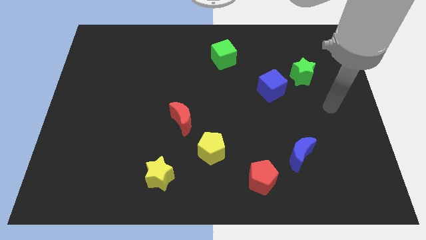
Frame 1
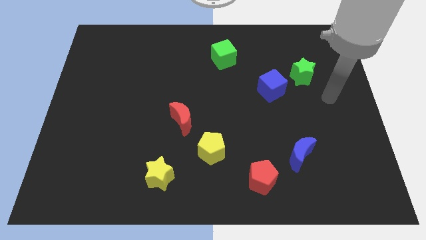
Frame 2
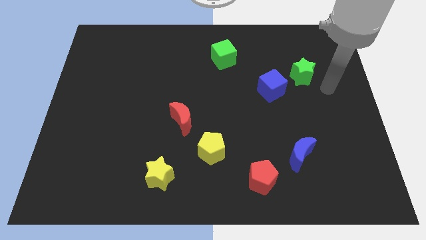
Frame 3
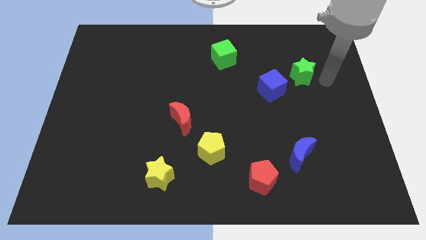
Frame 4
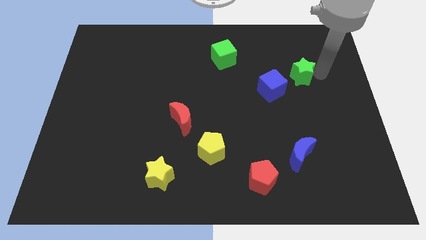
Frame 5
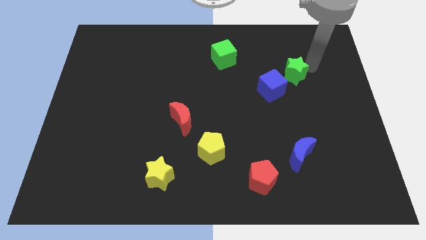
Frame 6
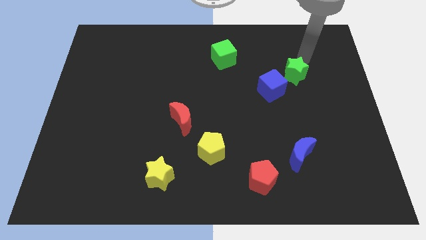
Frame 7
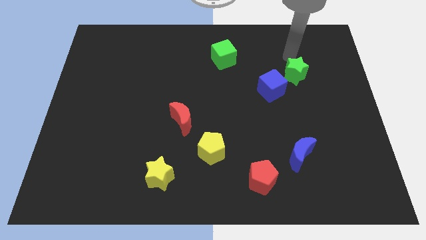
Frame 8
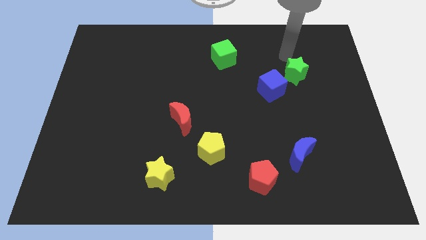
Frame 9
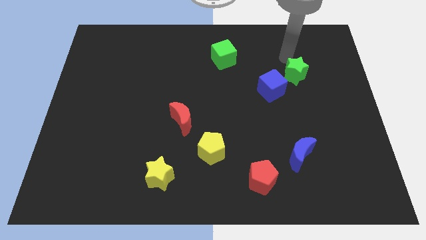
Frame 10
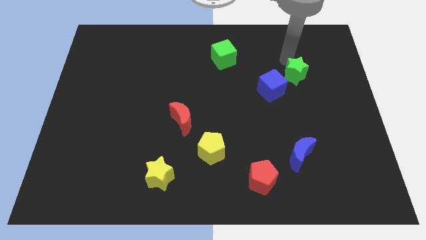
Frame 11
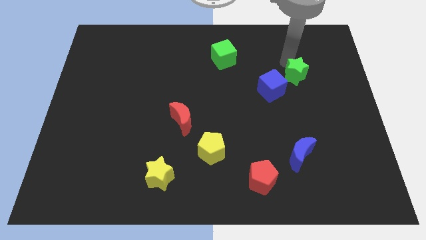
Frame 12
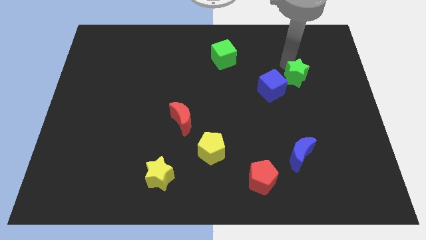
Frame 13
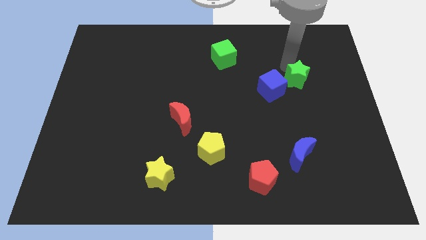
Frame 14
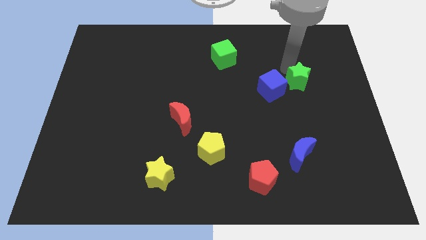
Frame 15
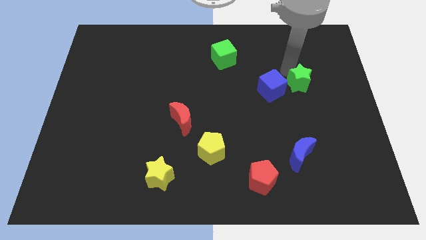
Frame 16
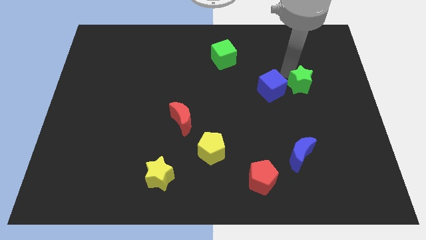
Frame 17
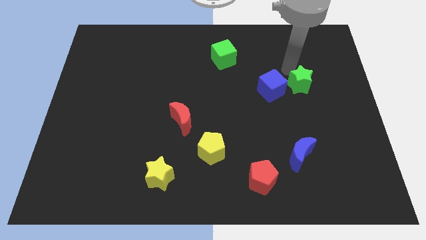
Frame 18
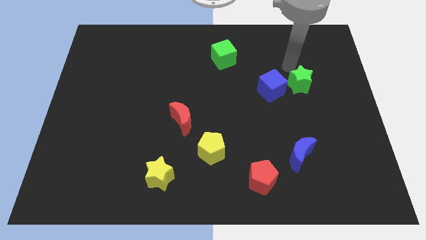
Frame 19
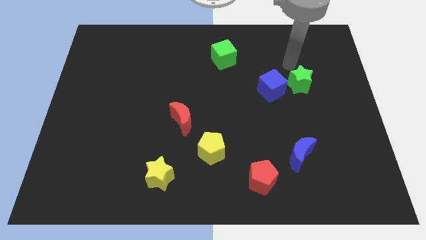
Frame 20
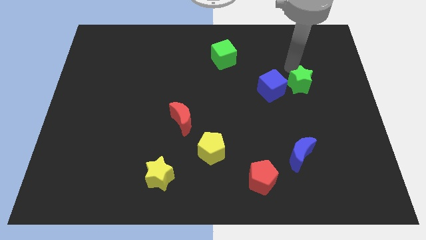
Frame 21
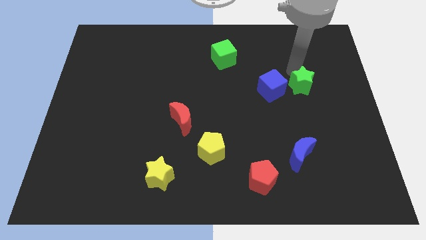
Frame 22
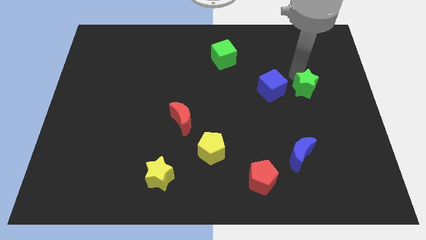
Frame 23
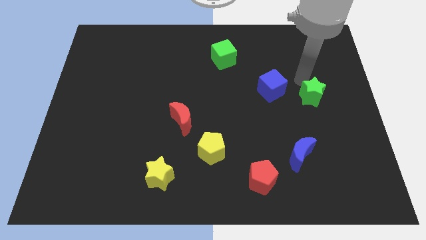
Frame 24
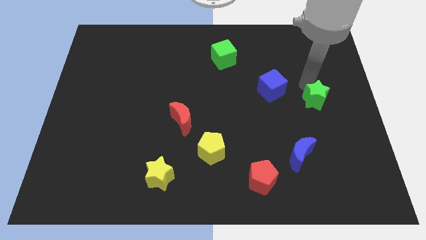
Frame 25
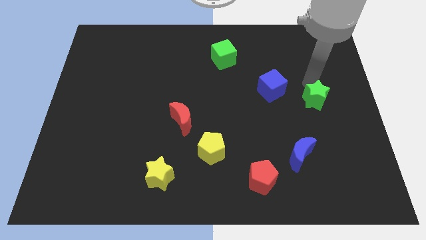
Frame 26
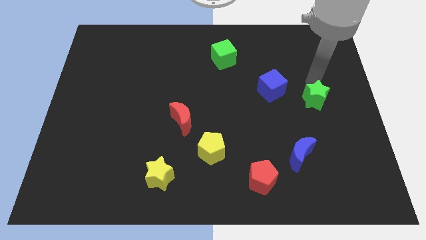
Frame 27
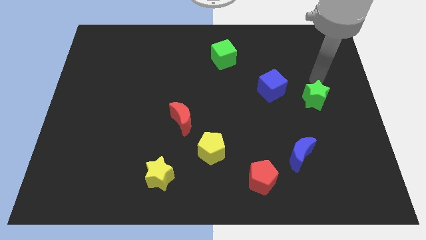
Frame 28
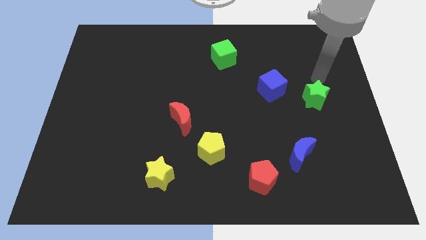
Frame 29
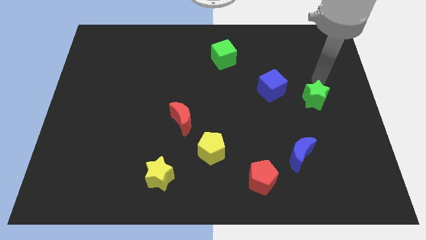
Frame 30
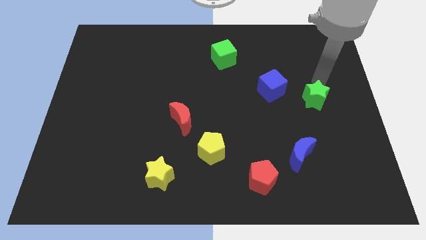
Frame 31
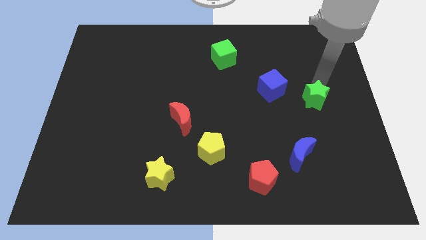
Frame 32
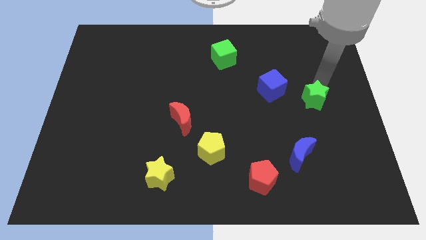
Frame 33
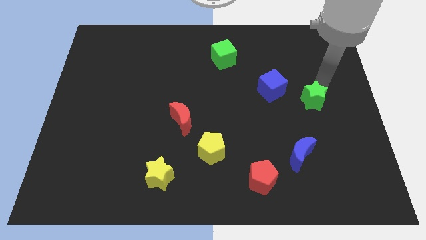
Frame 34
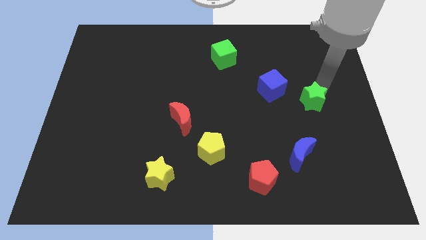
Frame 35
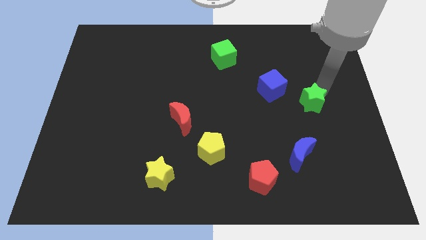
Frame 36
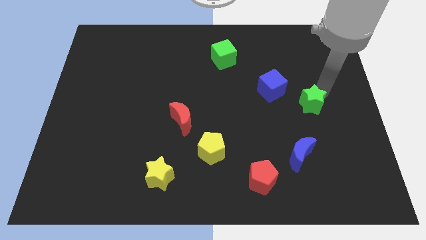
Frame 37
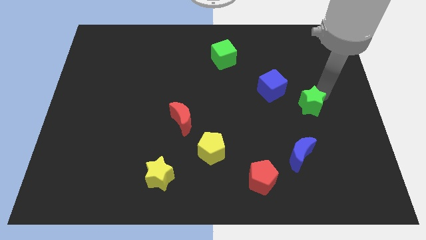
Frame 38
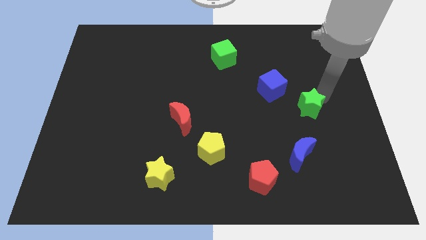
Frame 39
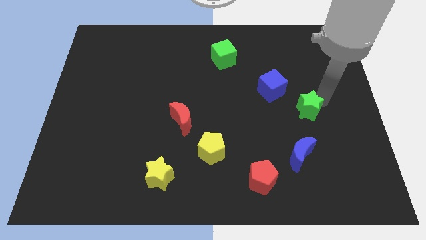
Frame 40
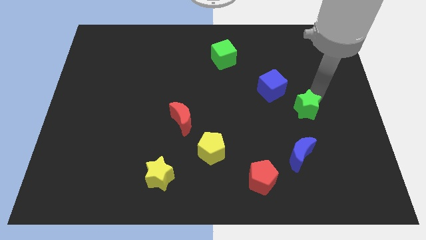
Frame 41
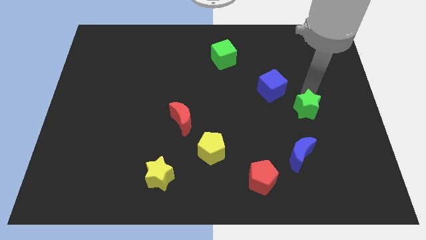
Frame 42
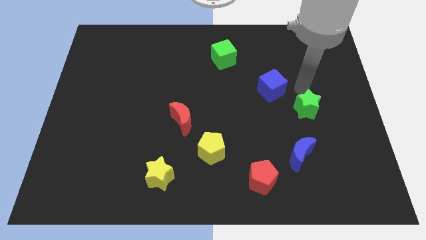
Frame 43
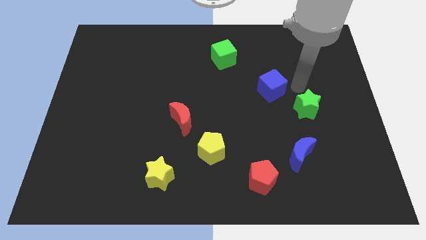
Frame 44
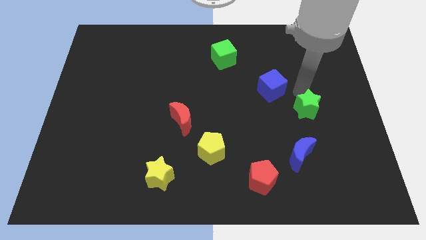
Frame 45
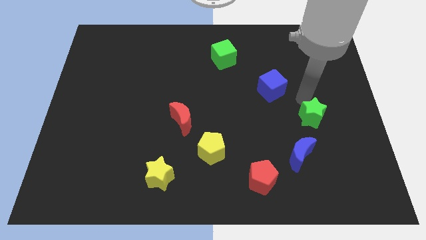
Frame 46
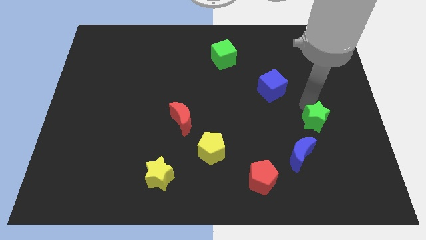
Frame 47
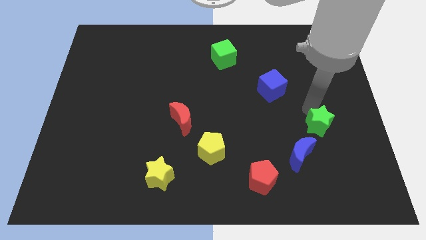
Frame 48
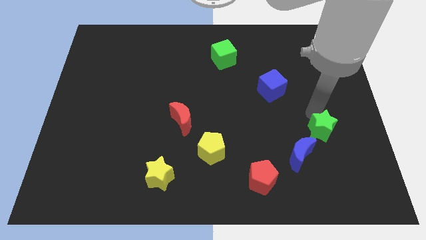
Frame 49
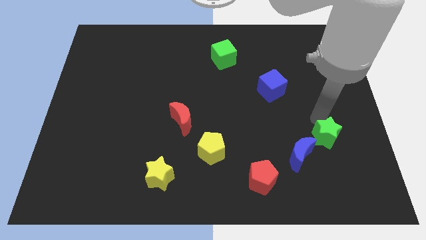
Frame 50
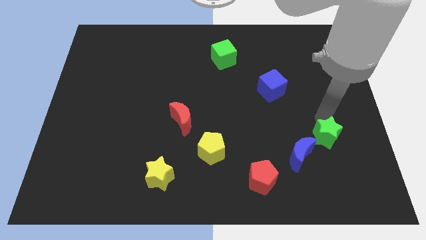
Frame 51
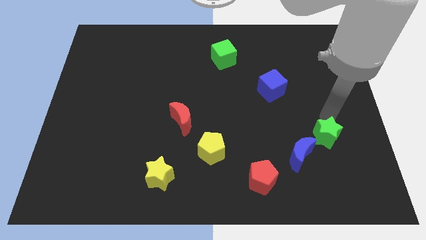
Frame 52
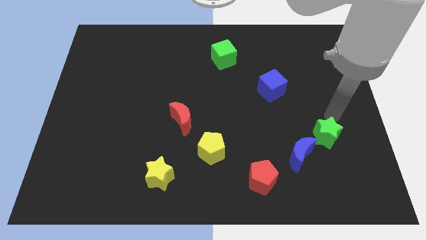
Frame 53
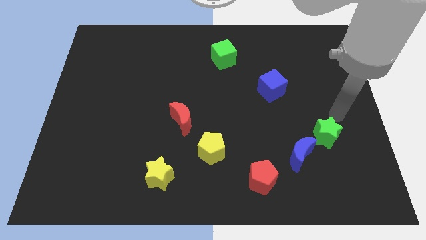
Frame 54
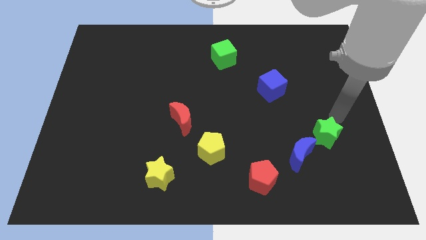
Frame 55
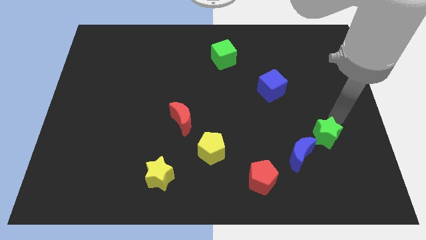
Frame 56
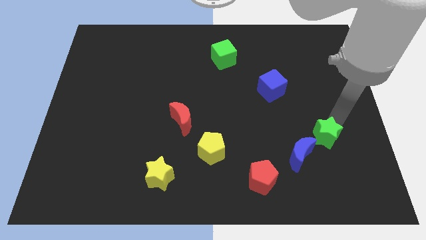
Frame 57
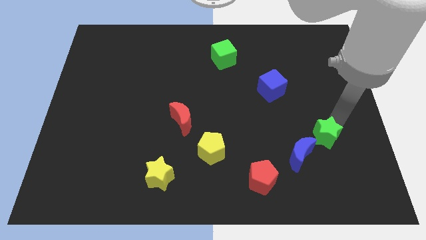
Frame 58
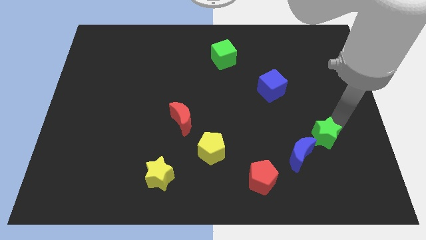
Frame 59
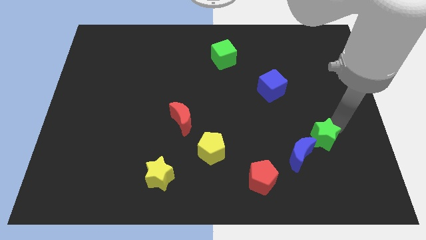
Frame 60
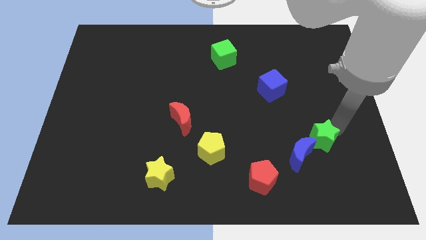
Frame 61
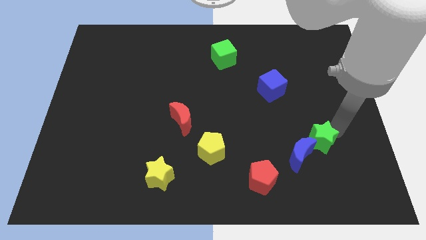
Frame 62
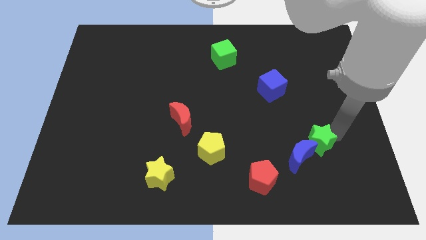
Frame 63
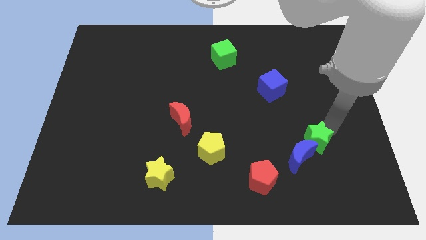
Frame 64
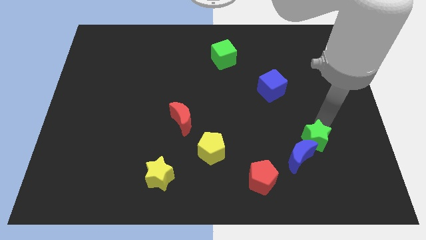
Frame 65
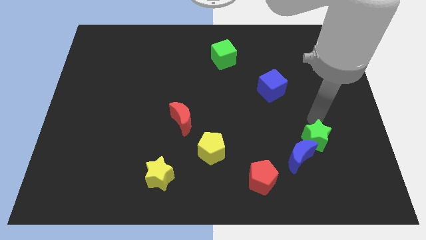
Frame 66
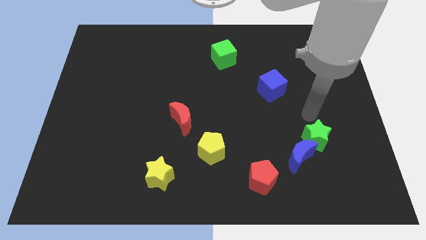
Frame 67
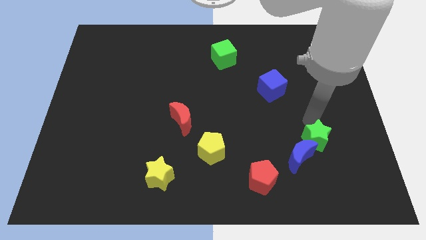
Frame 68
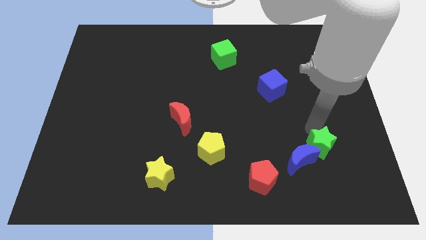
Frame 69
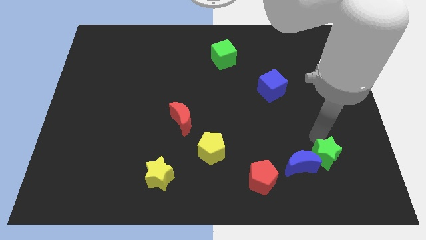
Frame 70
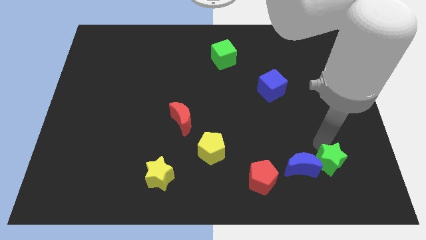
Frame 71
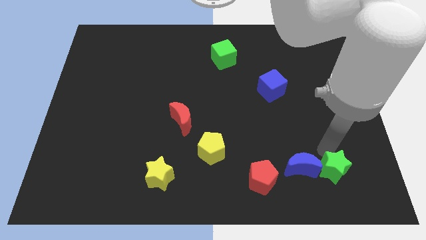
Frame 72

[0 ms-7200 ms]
move the green star to the bottom right side of the blue moon
